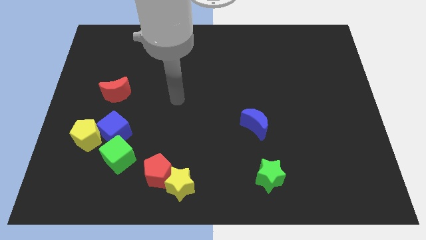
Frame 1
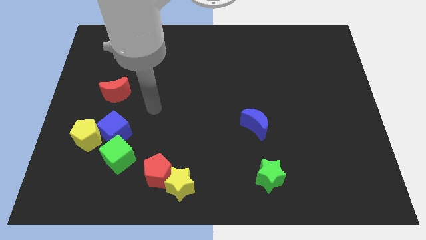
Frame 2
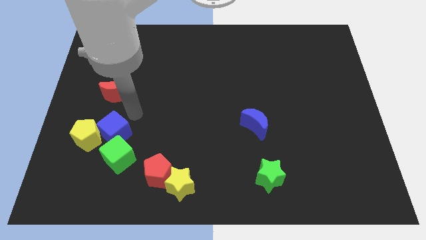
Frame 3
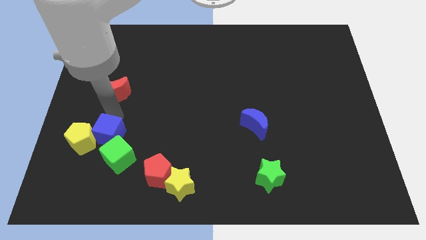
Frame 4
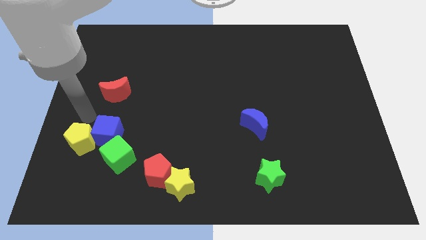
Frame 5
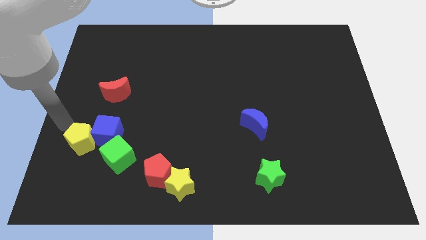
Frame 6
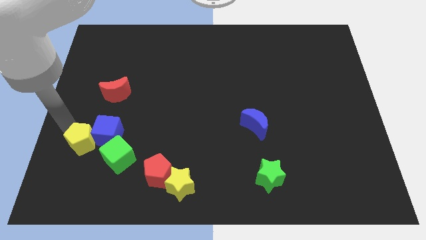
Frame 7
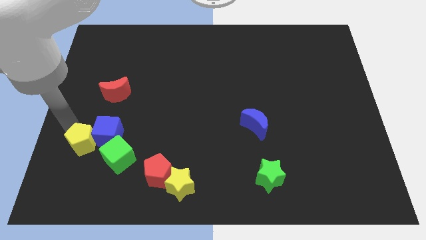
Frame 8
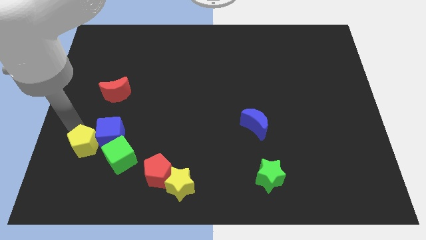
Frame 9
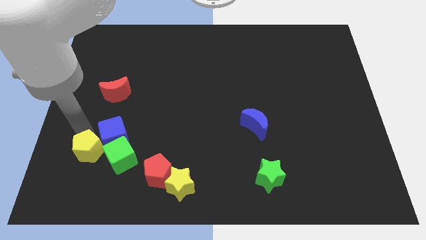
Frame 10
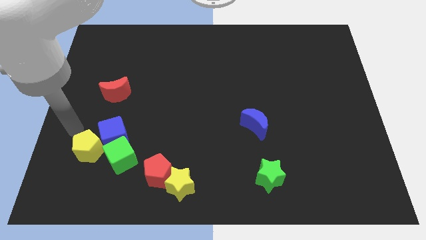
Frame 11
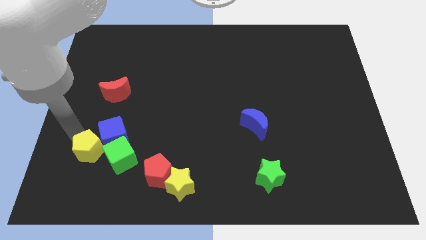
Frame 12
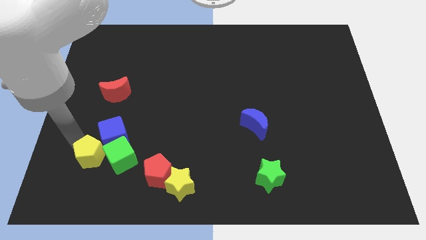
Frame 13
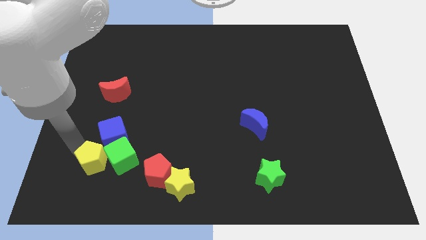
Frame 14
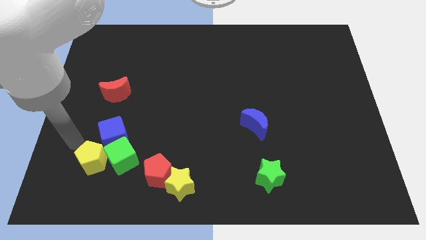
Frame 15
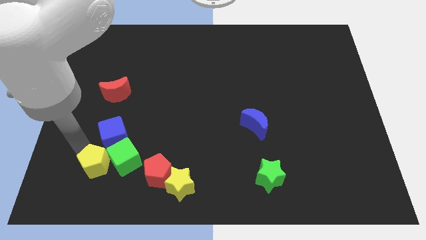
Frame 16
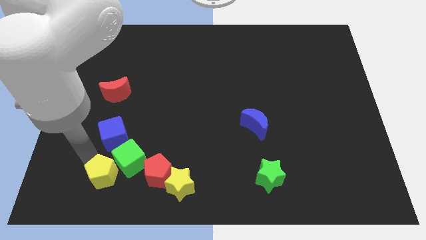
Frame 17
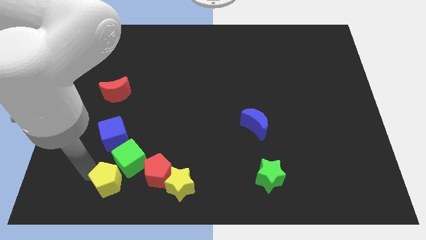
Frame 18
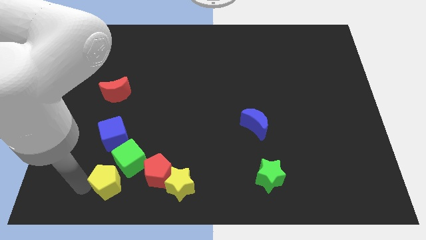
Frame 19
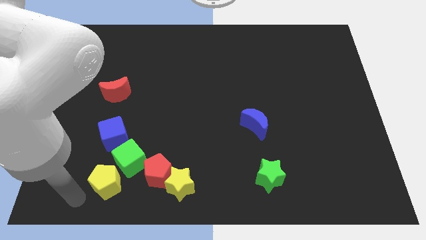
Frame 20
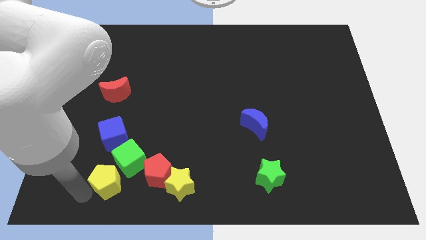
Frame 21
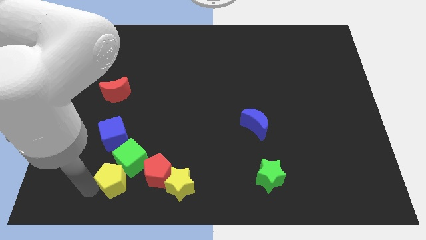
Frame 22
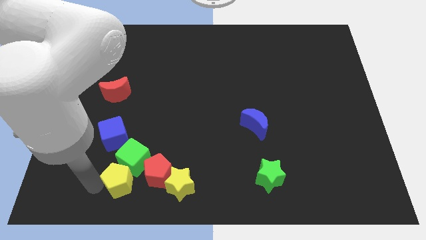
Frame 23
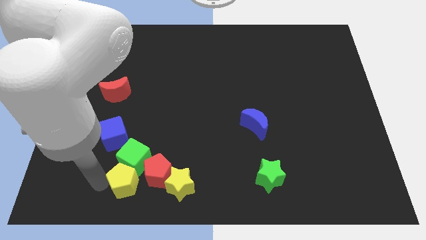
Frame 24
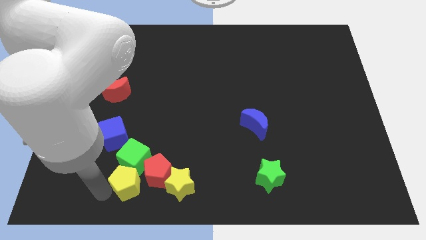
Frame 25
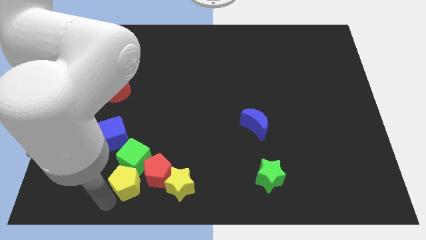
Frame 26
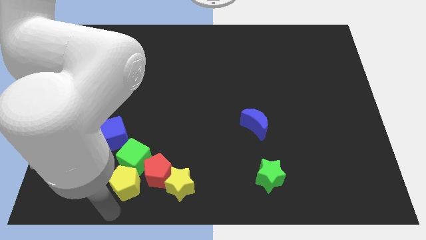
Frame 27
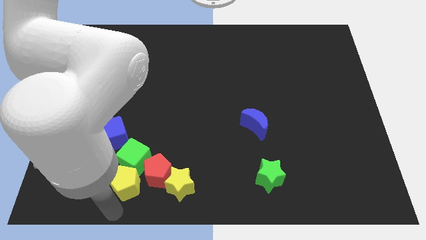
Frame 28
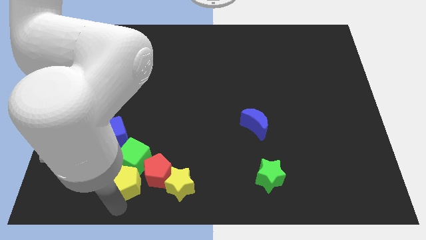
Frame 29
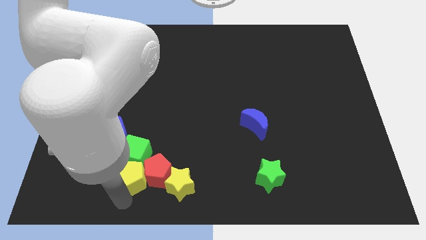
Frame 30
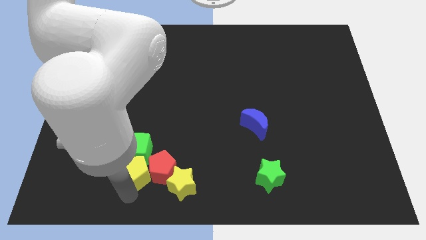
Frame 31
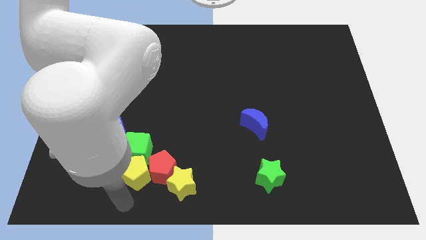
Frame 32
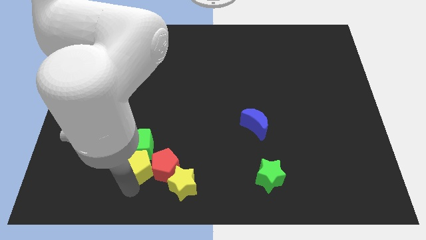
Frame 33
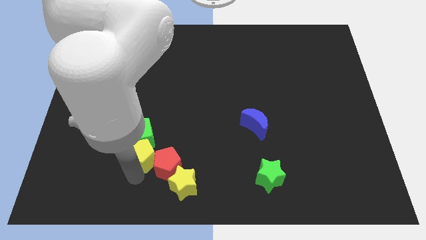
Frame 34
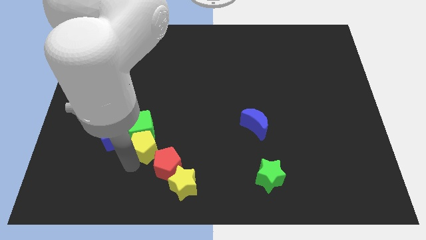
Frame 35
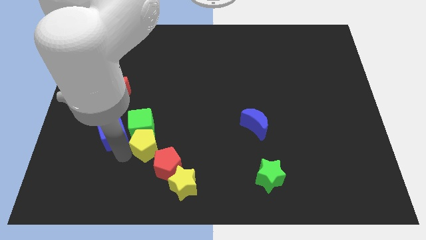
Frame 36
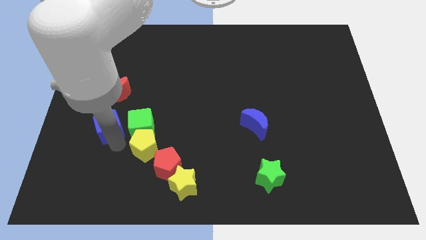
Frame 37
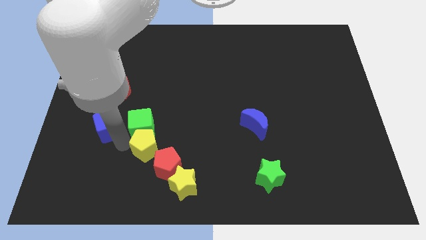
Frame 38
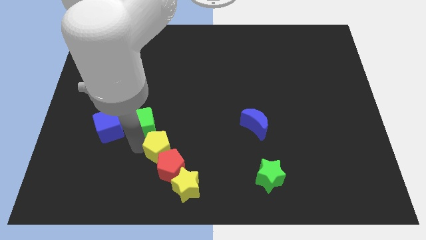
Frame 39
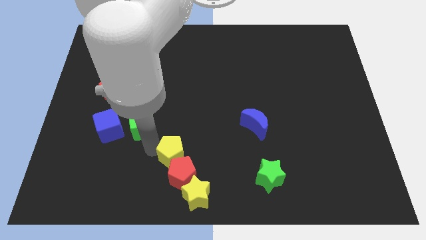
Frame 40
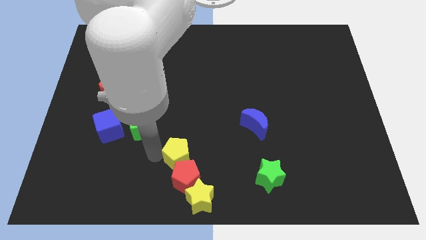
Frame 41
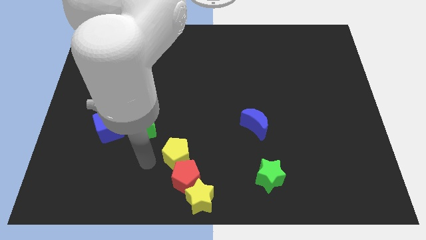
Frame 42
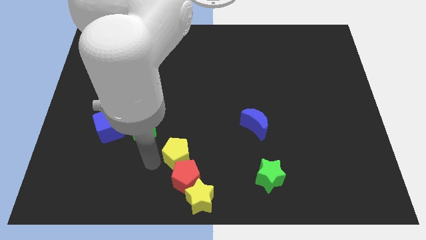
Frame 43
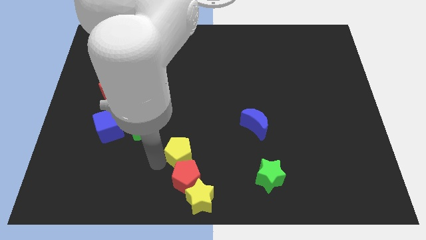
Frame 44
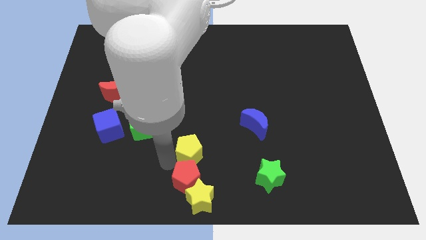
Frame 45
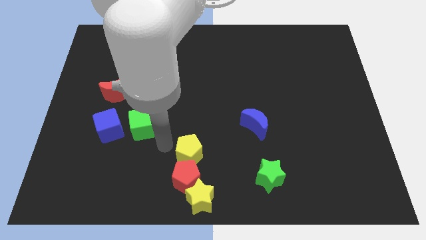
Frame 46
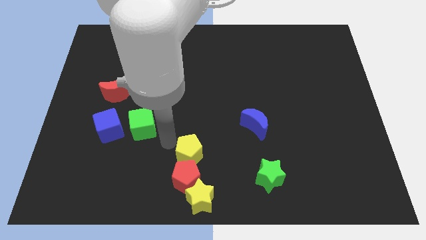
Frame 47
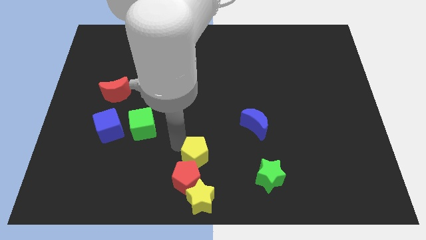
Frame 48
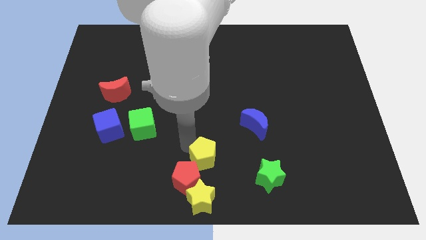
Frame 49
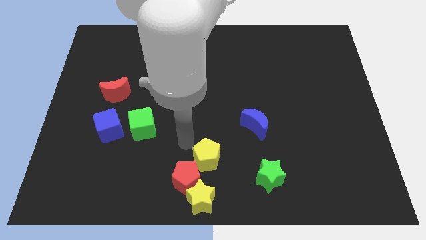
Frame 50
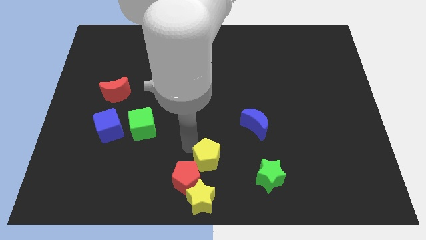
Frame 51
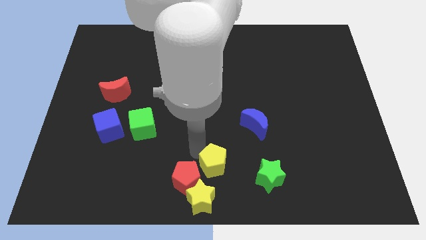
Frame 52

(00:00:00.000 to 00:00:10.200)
put the yellow pentagon to the right side of the red pentagon

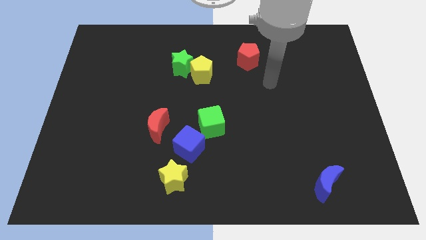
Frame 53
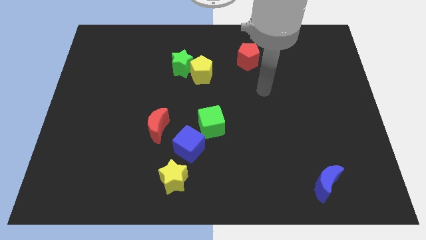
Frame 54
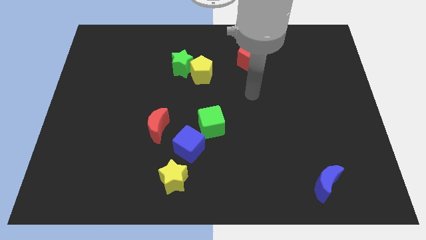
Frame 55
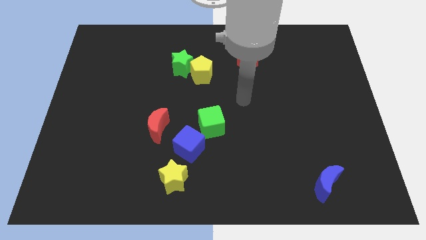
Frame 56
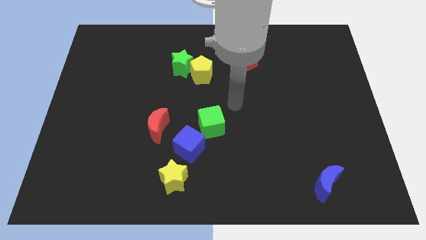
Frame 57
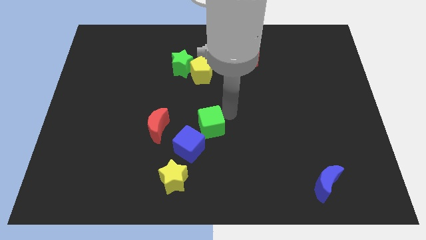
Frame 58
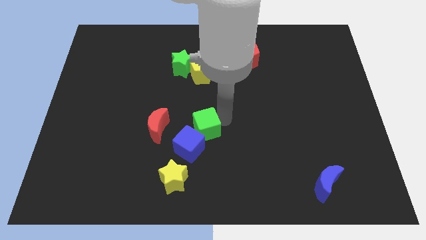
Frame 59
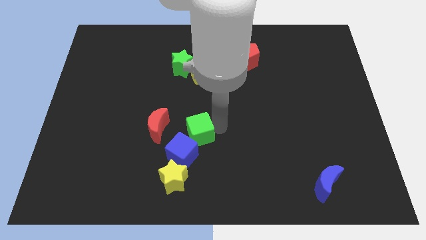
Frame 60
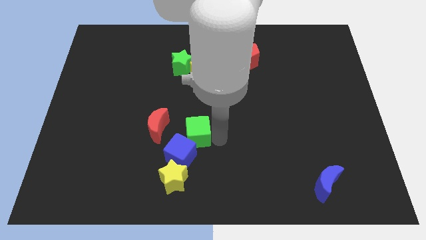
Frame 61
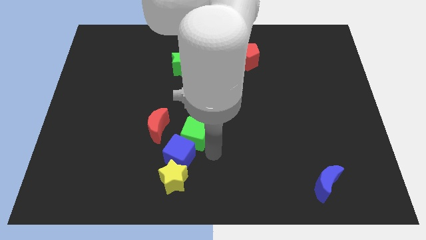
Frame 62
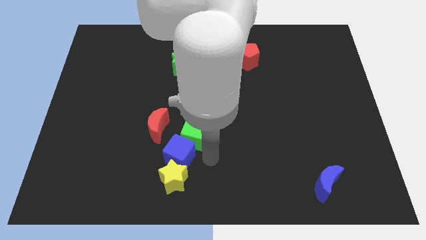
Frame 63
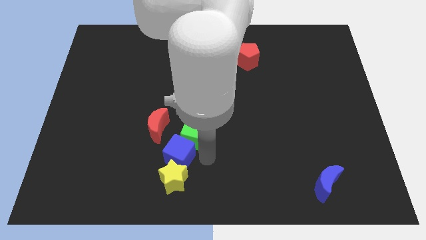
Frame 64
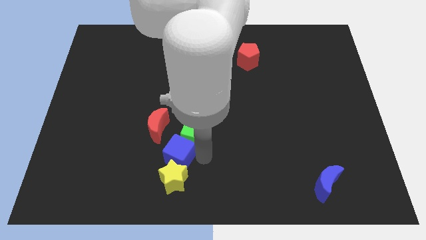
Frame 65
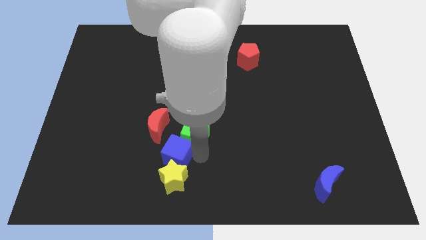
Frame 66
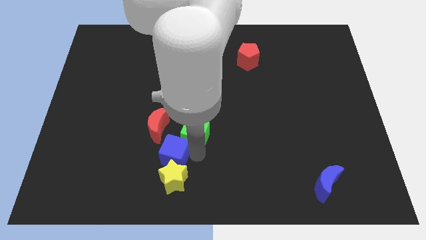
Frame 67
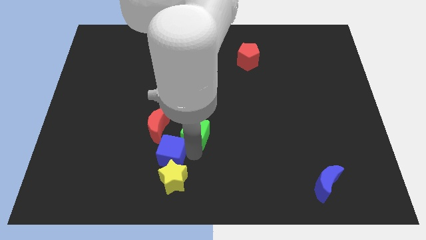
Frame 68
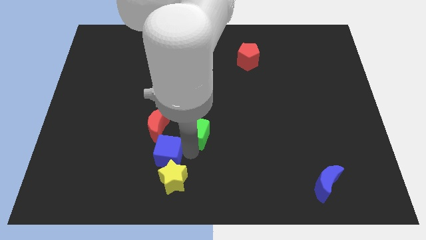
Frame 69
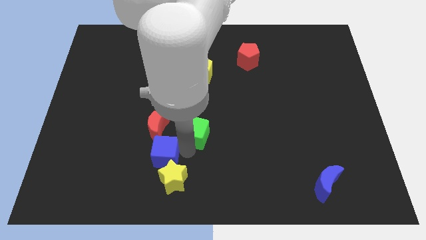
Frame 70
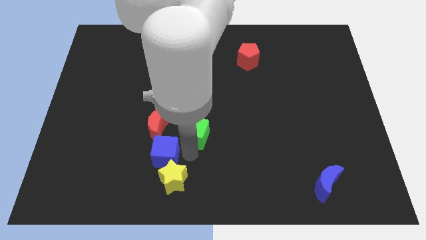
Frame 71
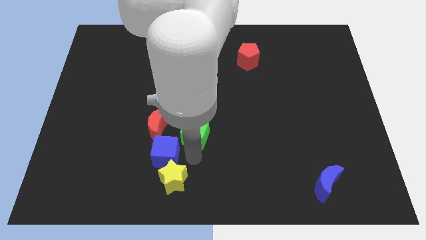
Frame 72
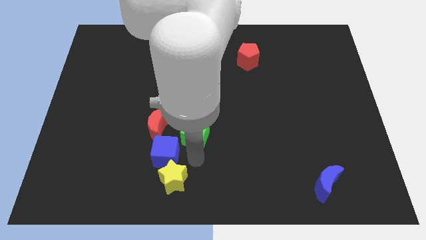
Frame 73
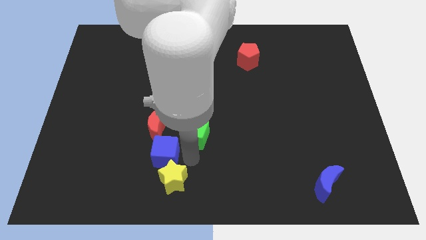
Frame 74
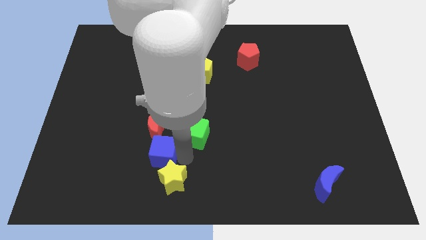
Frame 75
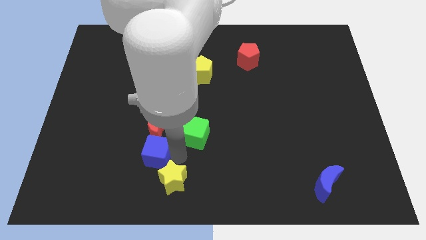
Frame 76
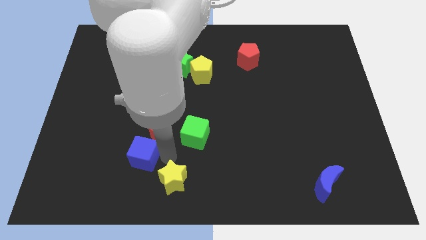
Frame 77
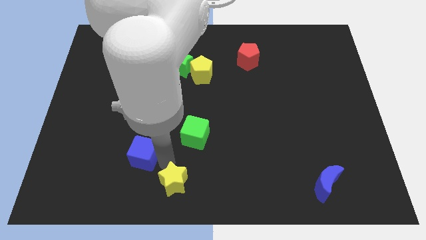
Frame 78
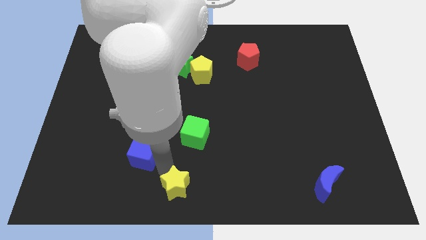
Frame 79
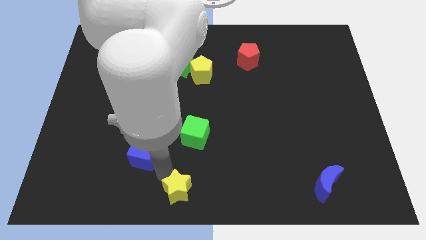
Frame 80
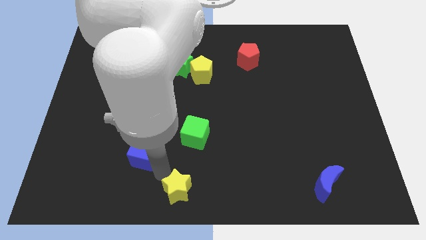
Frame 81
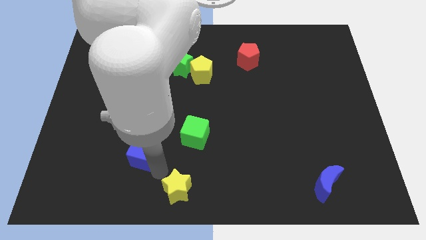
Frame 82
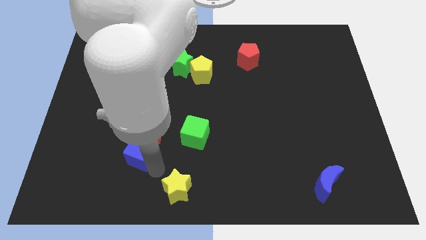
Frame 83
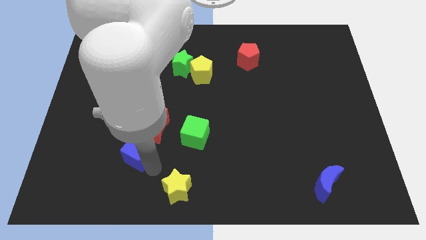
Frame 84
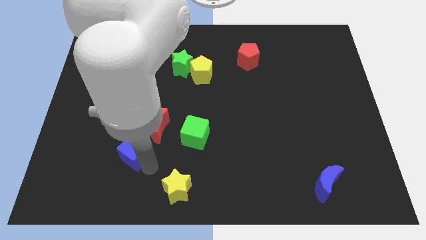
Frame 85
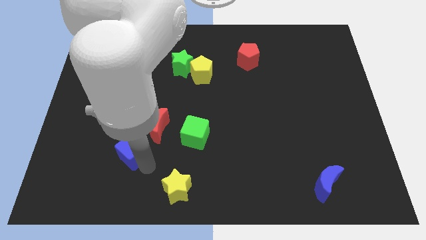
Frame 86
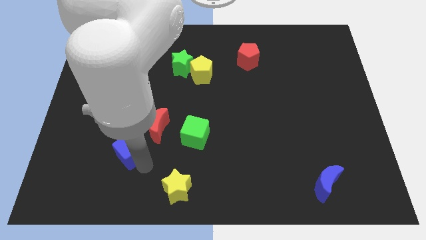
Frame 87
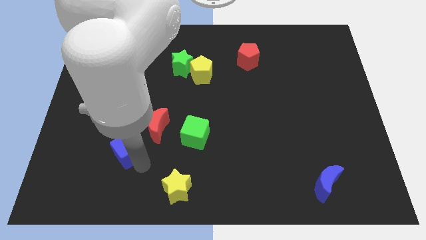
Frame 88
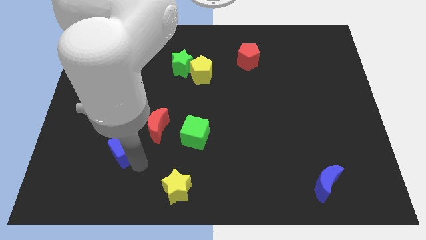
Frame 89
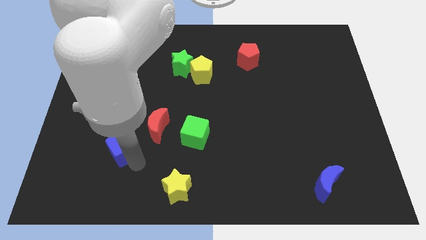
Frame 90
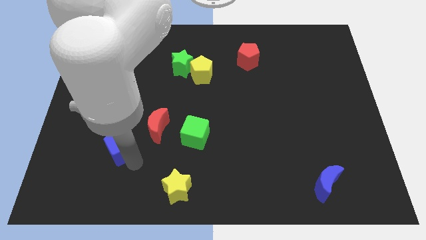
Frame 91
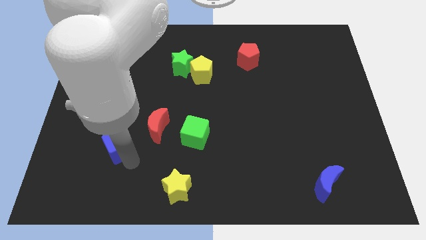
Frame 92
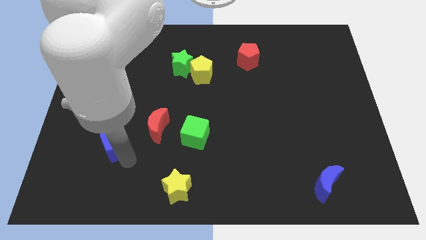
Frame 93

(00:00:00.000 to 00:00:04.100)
push the blue cube left of the red moon
